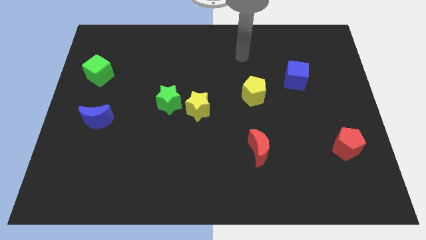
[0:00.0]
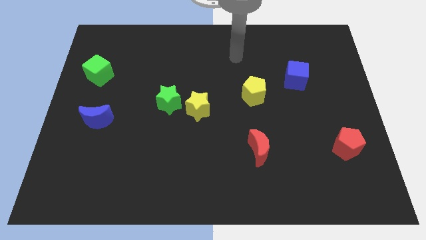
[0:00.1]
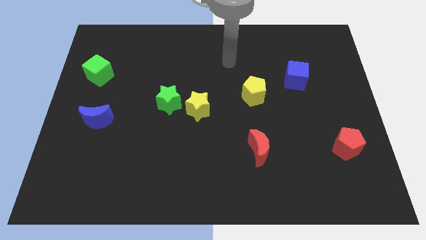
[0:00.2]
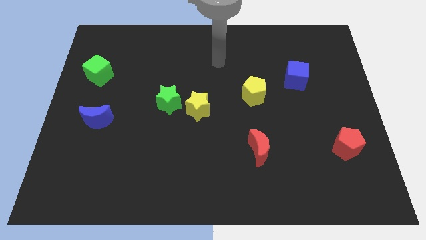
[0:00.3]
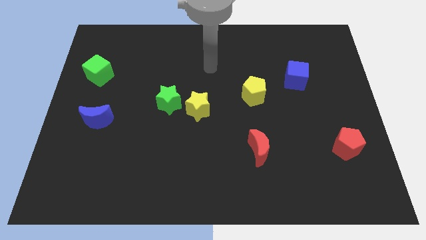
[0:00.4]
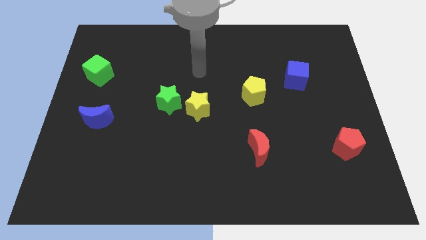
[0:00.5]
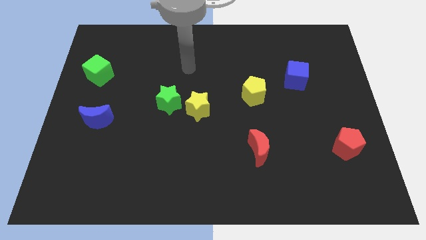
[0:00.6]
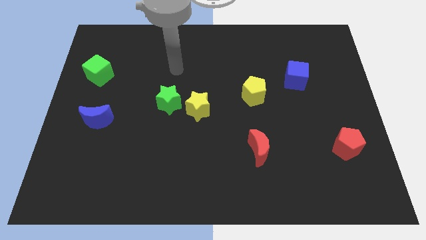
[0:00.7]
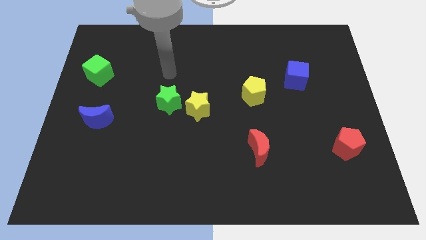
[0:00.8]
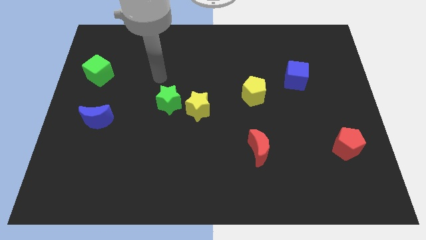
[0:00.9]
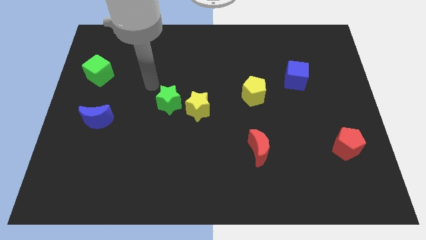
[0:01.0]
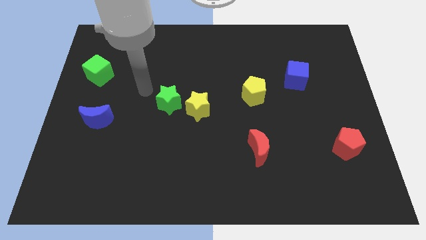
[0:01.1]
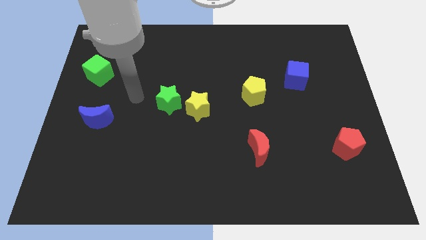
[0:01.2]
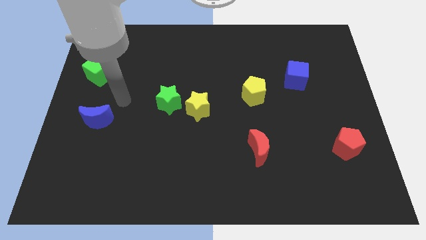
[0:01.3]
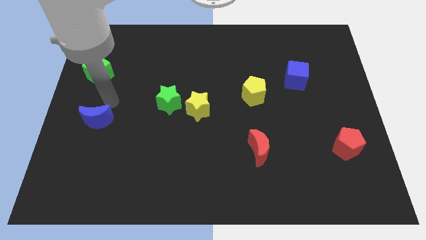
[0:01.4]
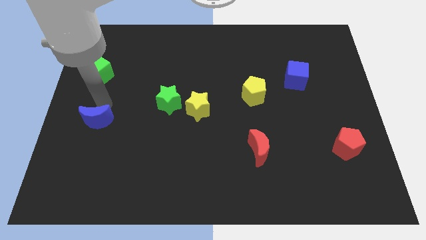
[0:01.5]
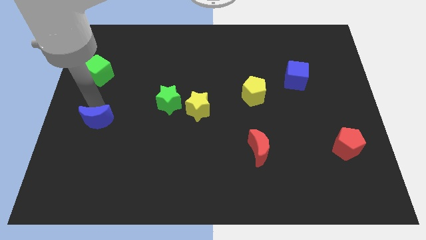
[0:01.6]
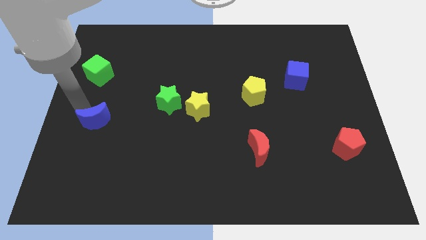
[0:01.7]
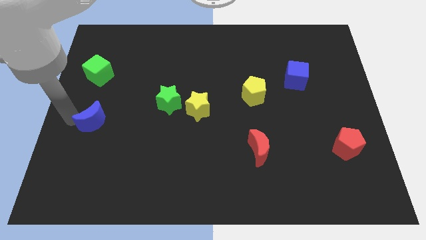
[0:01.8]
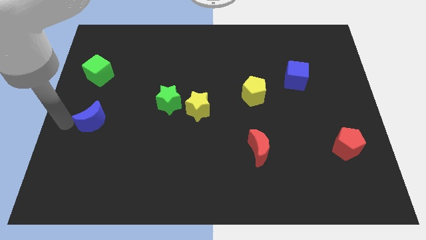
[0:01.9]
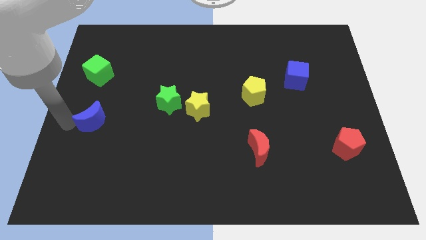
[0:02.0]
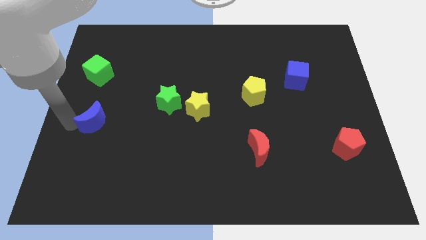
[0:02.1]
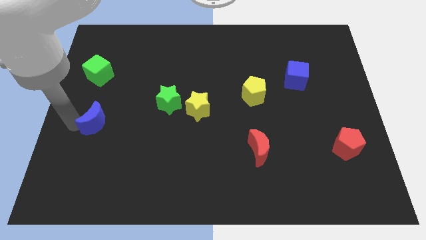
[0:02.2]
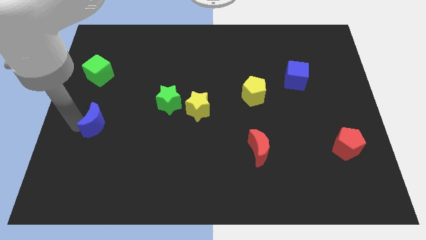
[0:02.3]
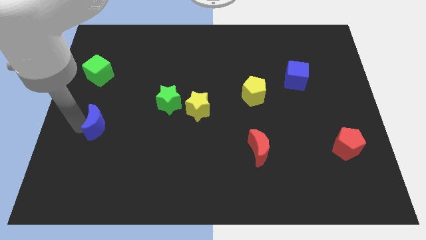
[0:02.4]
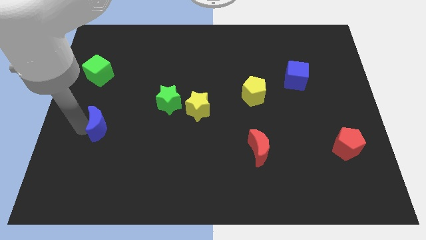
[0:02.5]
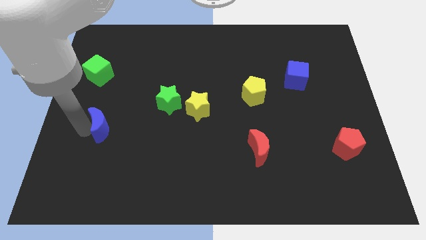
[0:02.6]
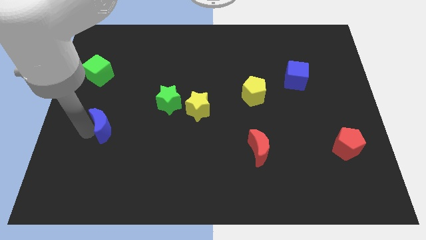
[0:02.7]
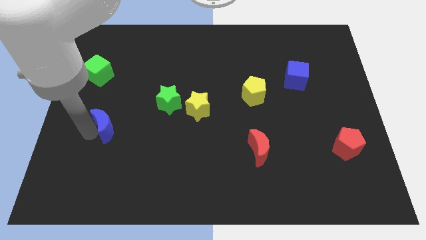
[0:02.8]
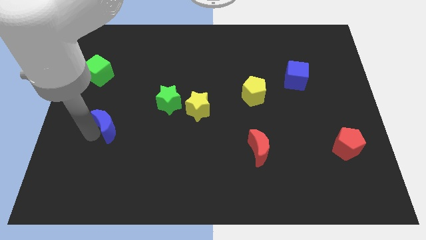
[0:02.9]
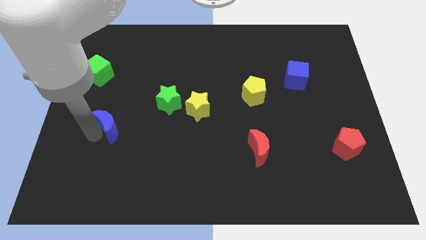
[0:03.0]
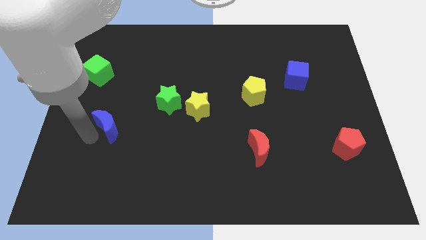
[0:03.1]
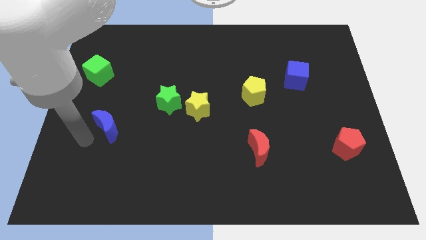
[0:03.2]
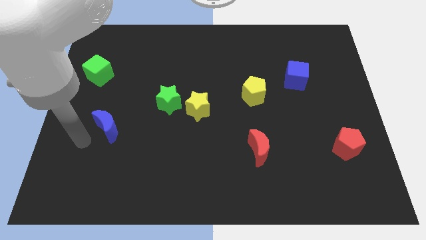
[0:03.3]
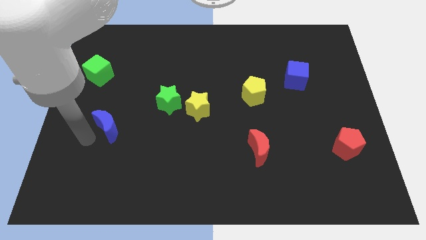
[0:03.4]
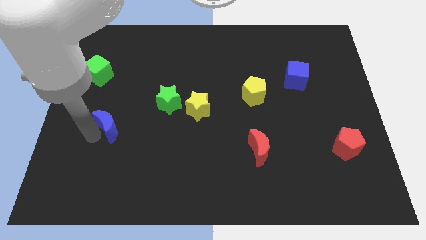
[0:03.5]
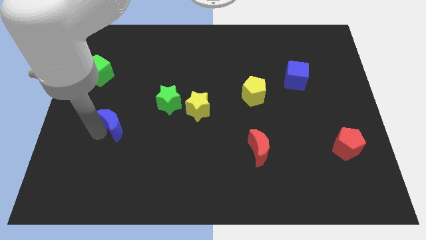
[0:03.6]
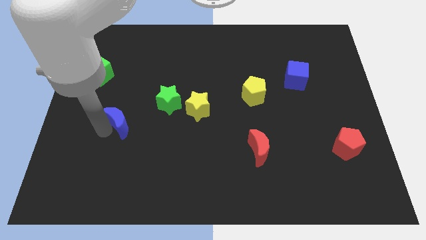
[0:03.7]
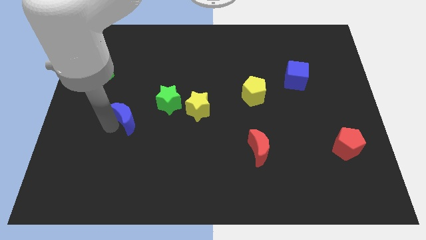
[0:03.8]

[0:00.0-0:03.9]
slightly push the blue moon to the right

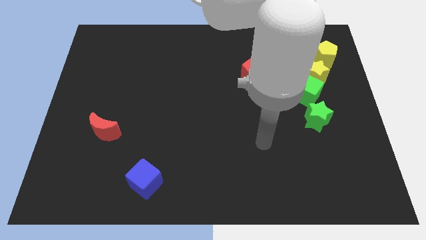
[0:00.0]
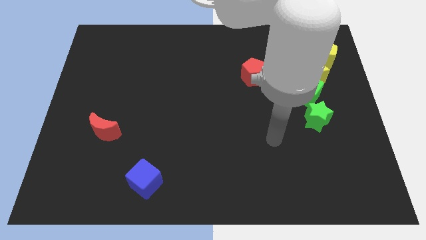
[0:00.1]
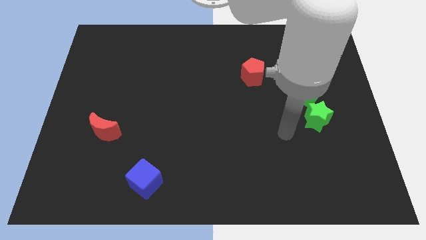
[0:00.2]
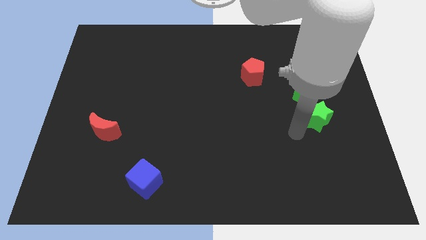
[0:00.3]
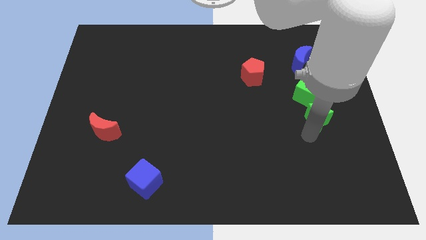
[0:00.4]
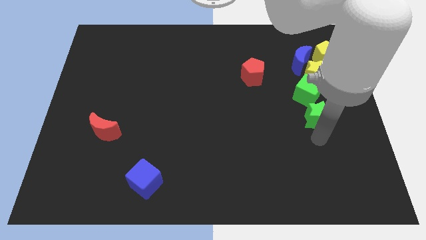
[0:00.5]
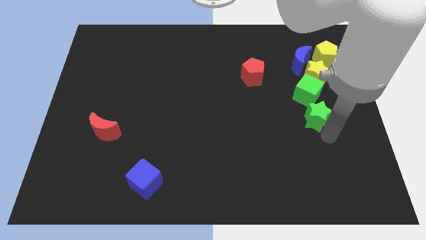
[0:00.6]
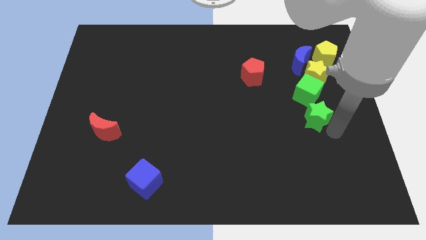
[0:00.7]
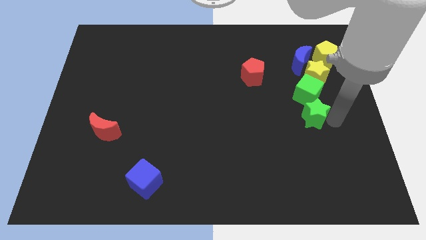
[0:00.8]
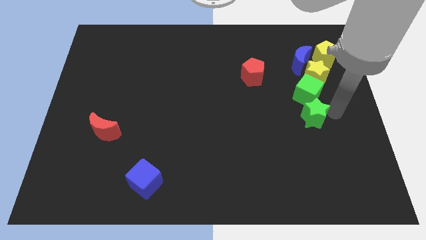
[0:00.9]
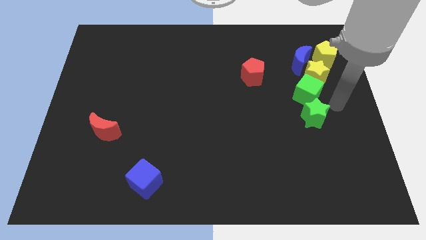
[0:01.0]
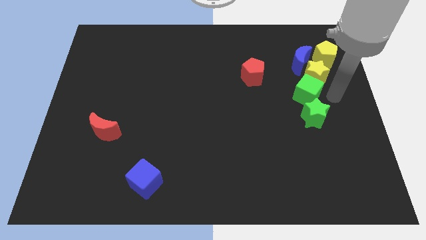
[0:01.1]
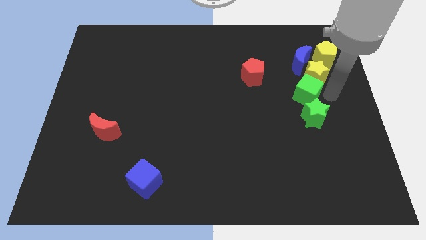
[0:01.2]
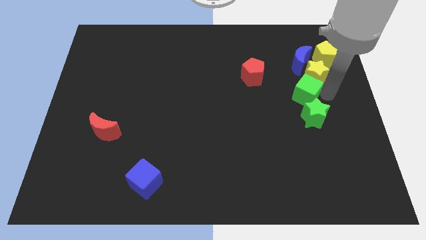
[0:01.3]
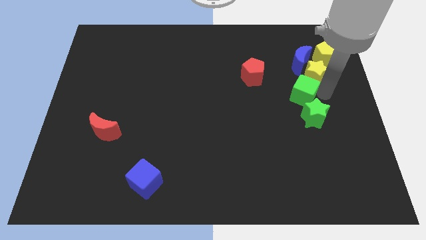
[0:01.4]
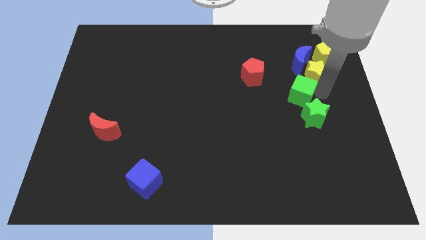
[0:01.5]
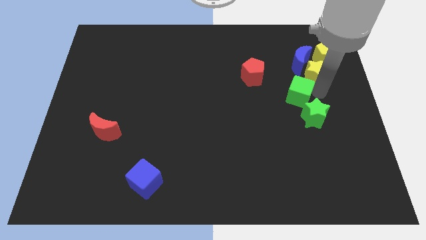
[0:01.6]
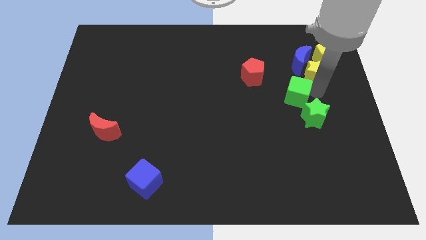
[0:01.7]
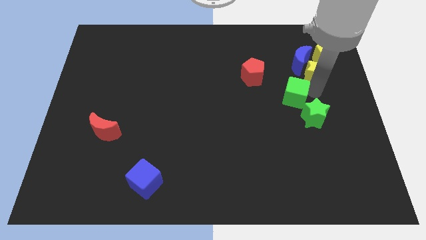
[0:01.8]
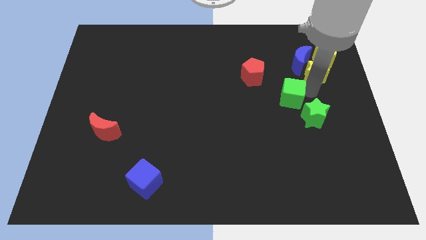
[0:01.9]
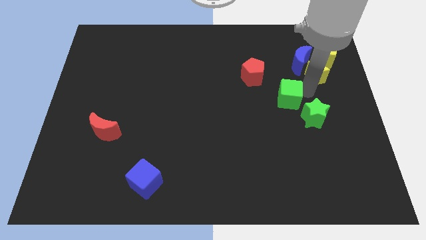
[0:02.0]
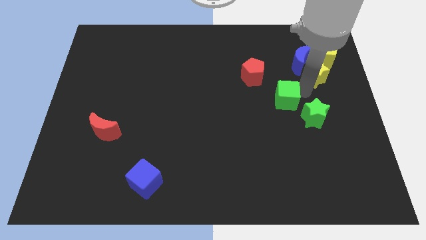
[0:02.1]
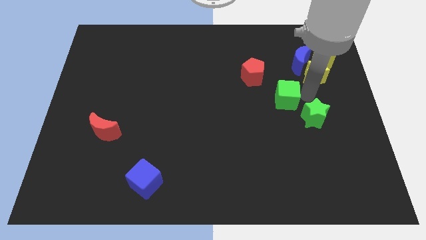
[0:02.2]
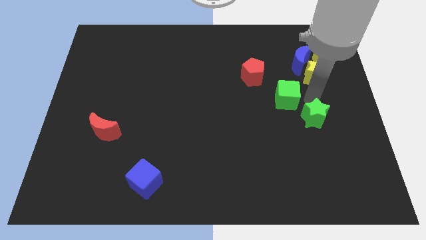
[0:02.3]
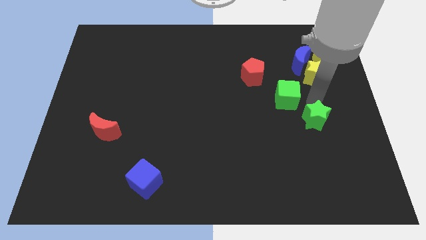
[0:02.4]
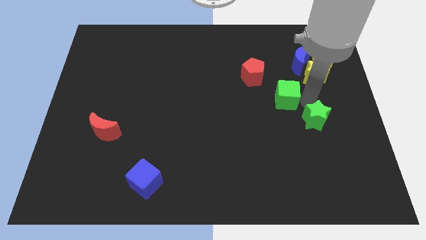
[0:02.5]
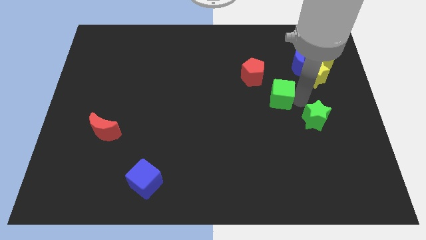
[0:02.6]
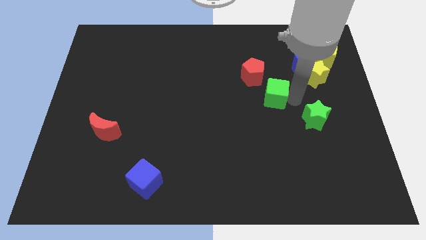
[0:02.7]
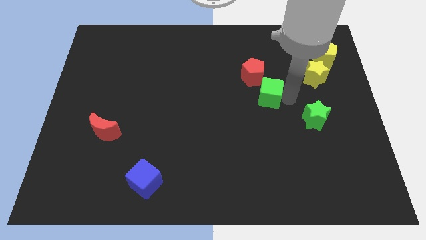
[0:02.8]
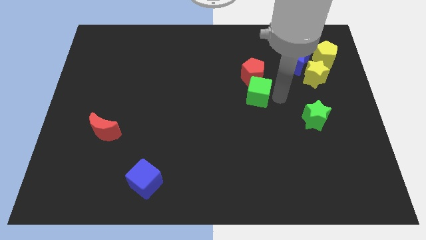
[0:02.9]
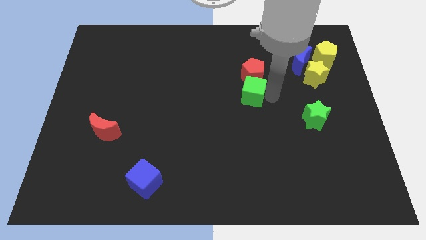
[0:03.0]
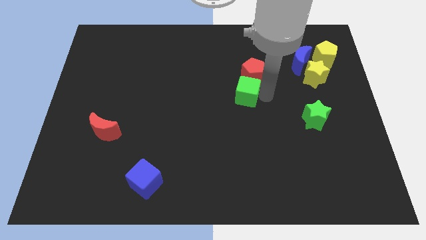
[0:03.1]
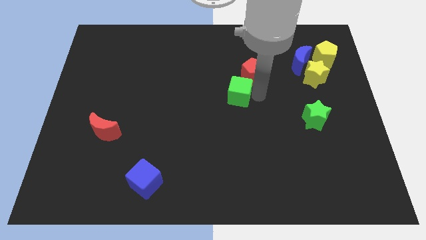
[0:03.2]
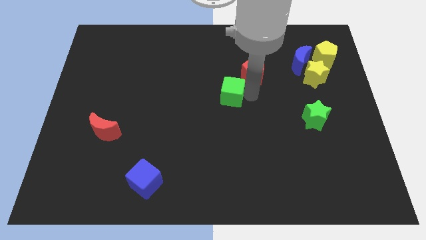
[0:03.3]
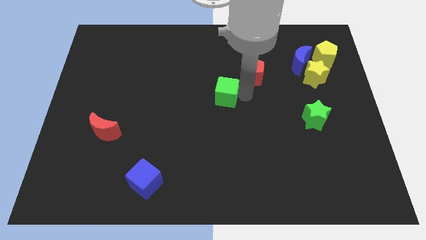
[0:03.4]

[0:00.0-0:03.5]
push the green cube to the left

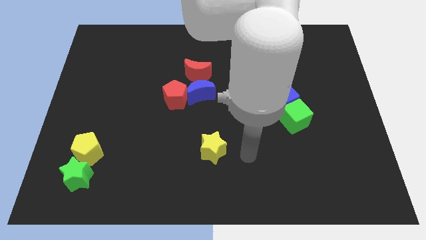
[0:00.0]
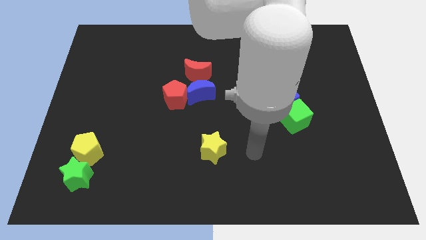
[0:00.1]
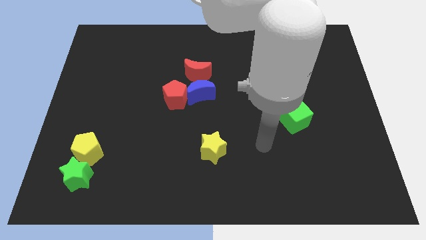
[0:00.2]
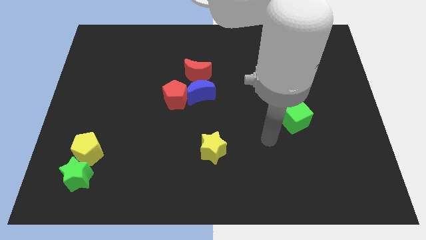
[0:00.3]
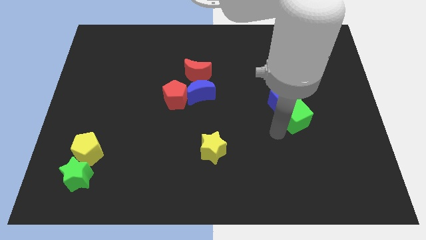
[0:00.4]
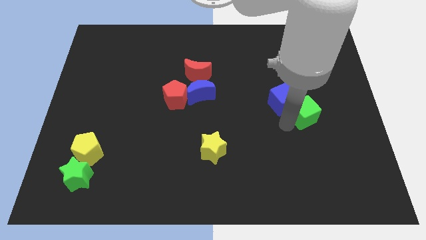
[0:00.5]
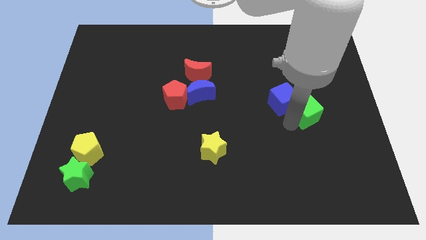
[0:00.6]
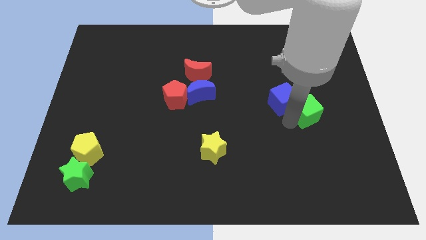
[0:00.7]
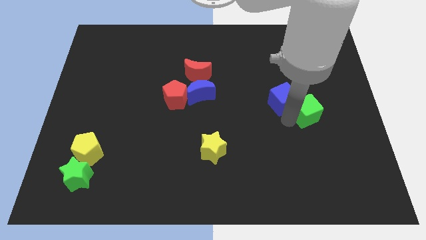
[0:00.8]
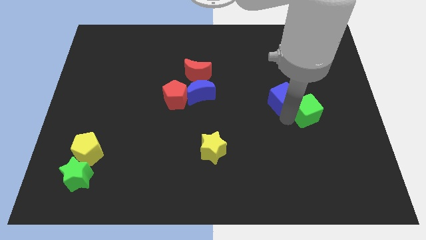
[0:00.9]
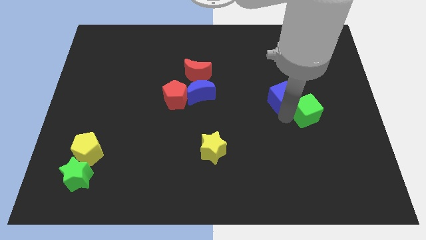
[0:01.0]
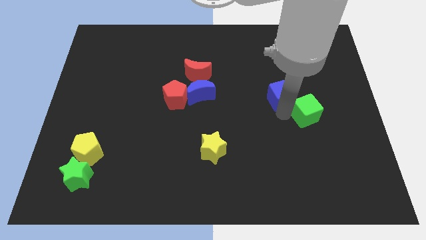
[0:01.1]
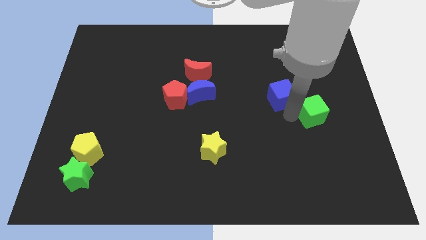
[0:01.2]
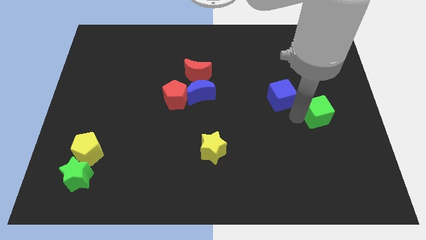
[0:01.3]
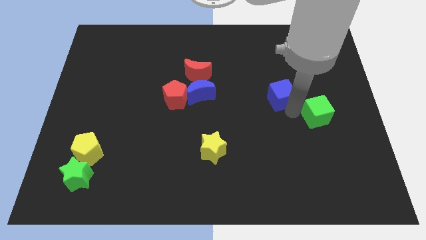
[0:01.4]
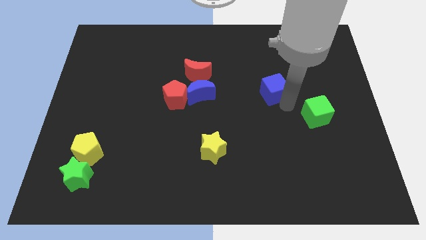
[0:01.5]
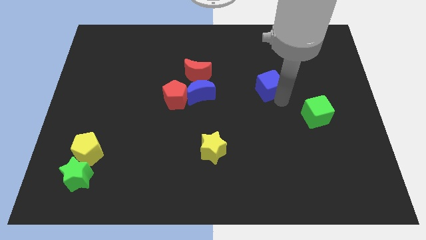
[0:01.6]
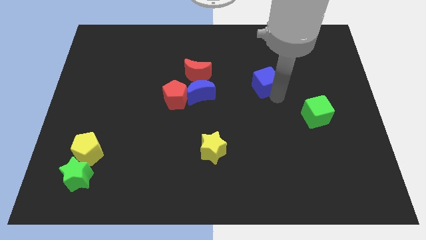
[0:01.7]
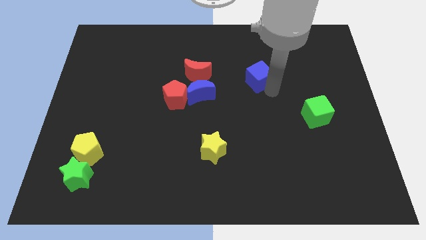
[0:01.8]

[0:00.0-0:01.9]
slightly move the blue cube diagonally up and left
